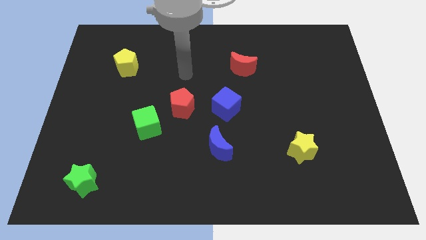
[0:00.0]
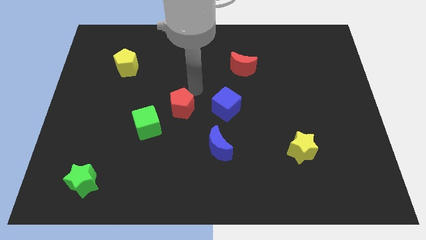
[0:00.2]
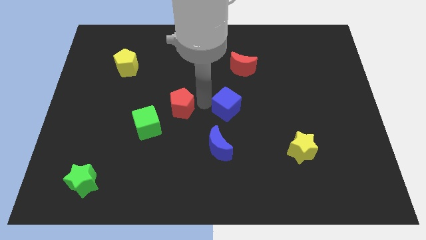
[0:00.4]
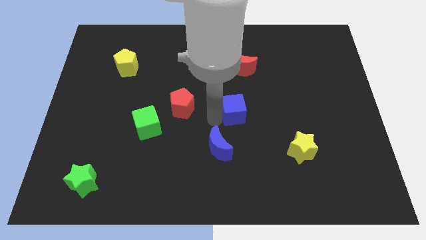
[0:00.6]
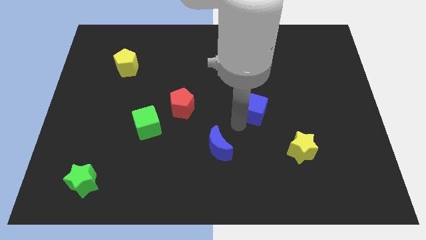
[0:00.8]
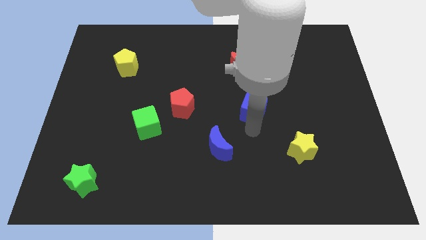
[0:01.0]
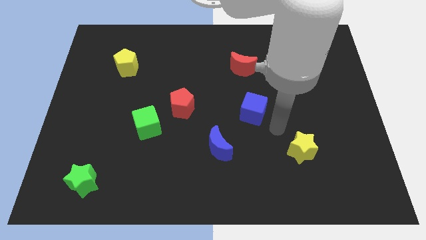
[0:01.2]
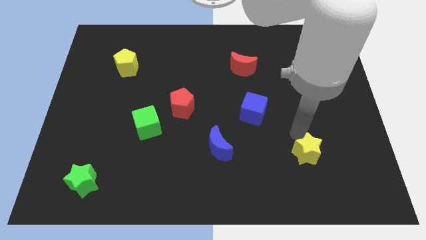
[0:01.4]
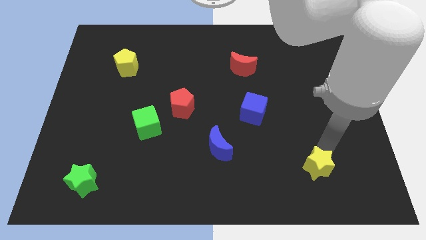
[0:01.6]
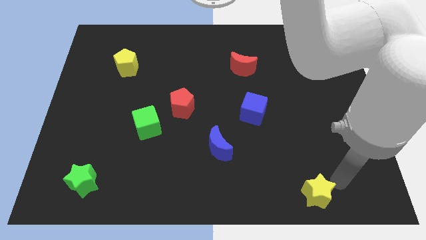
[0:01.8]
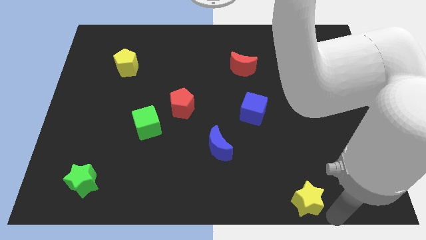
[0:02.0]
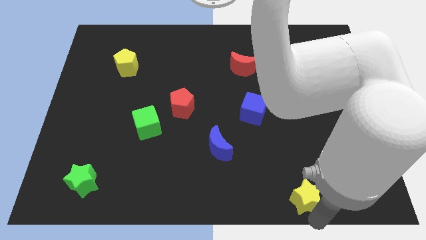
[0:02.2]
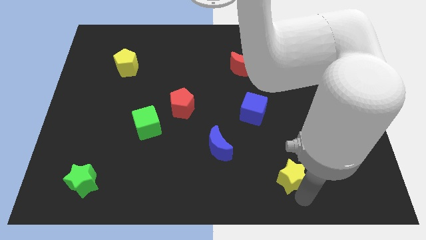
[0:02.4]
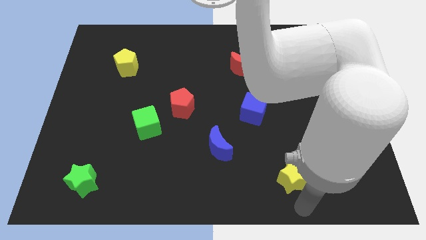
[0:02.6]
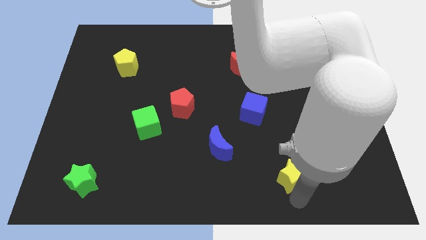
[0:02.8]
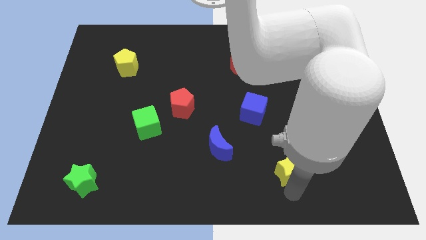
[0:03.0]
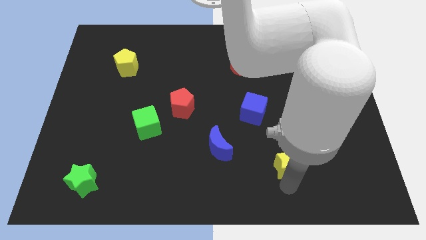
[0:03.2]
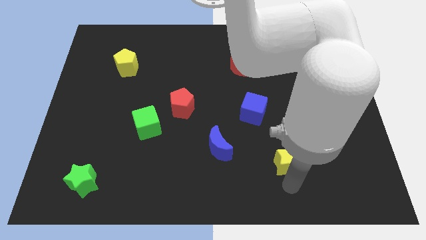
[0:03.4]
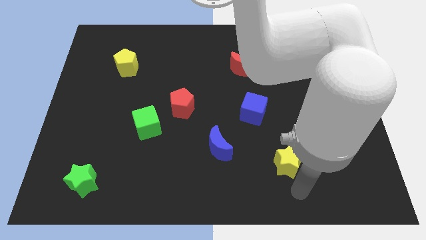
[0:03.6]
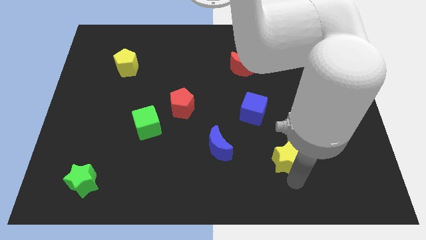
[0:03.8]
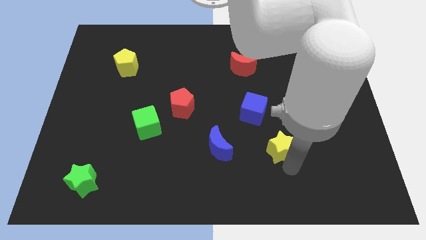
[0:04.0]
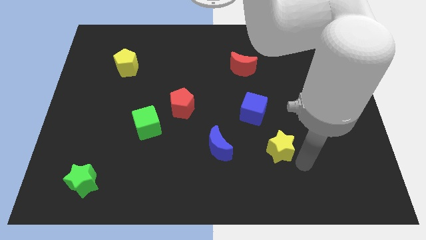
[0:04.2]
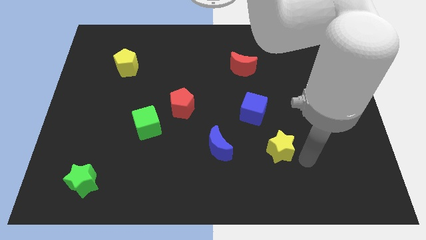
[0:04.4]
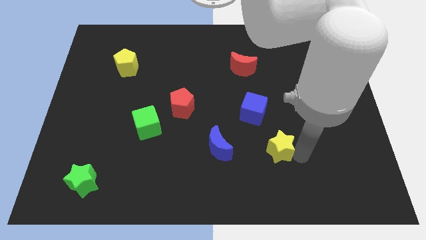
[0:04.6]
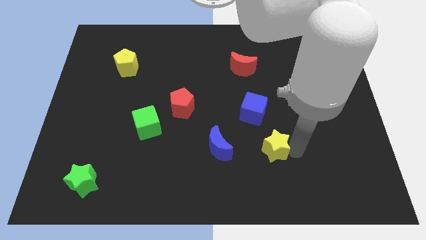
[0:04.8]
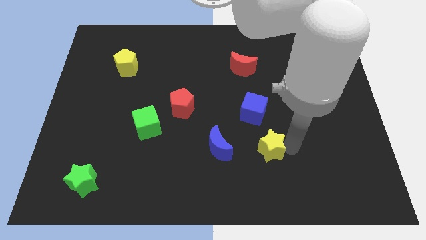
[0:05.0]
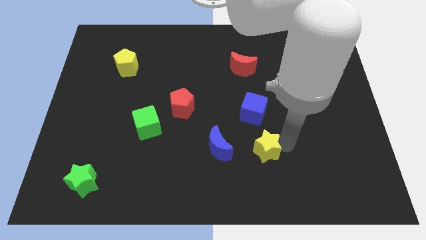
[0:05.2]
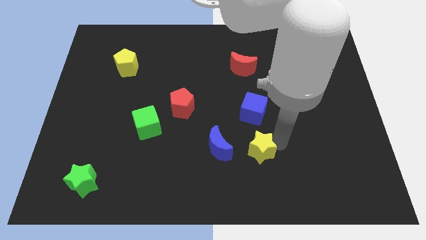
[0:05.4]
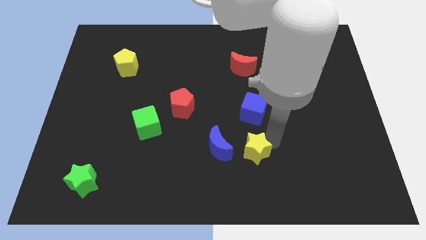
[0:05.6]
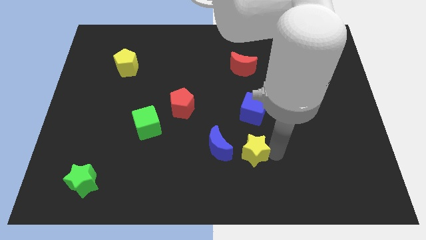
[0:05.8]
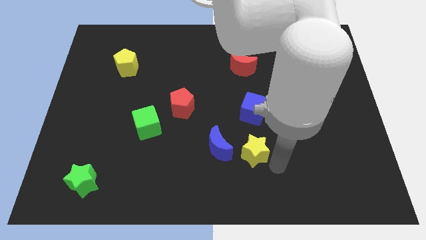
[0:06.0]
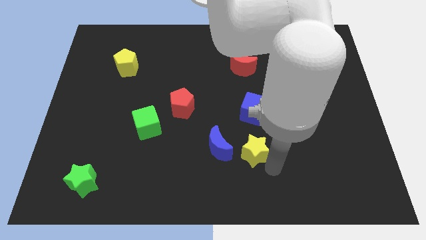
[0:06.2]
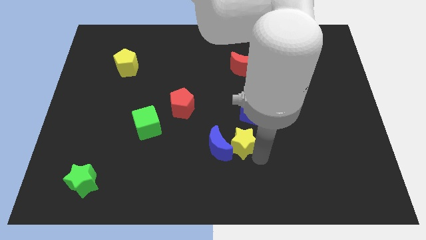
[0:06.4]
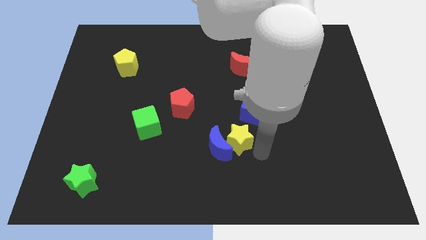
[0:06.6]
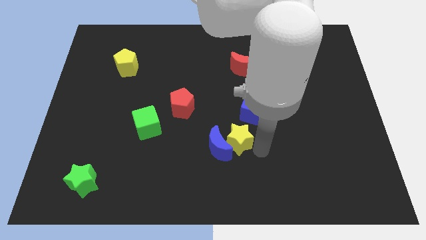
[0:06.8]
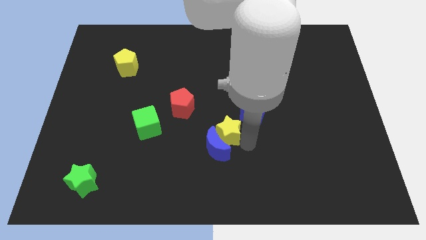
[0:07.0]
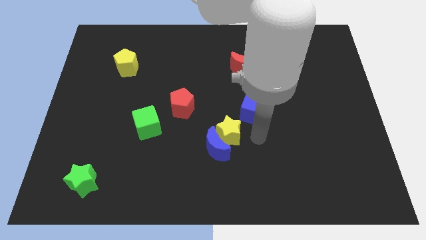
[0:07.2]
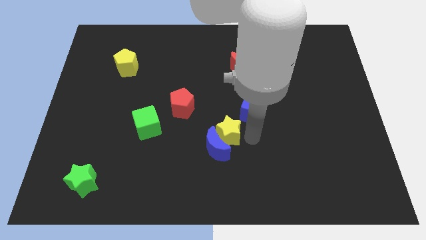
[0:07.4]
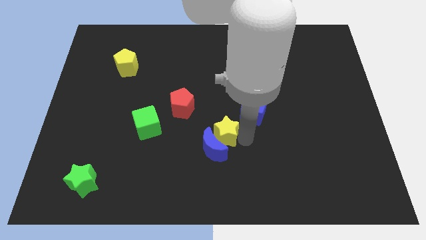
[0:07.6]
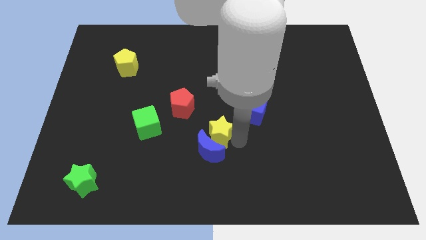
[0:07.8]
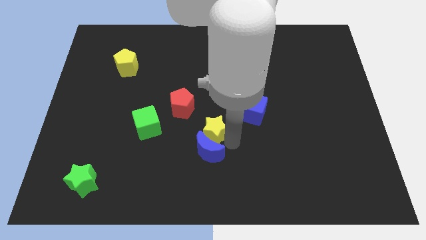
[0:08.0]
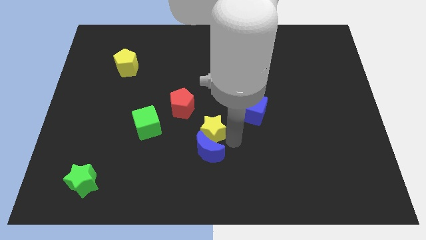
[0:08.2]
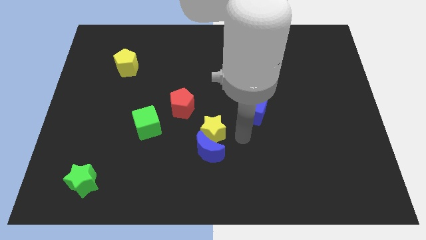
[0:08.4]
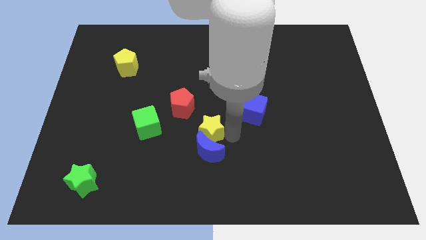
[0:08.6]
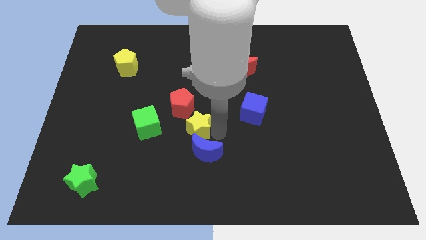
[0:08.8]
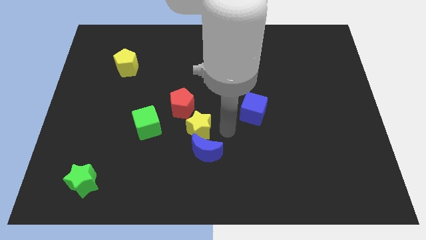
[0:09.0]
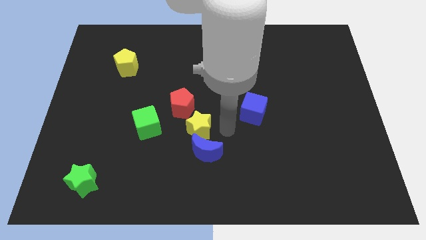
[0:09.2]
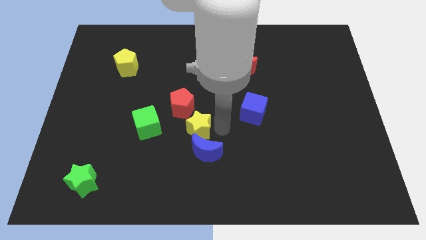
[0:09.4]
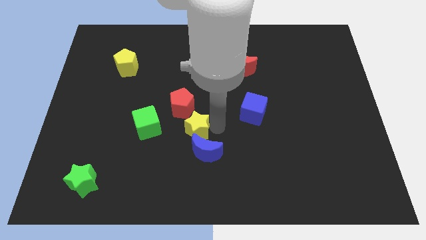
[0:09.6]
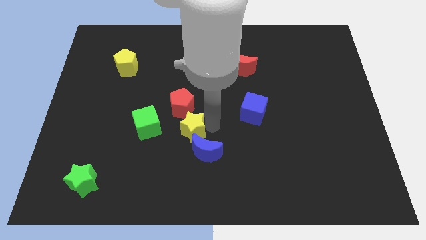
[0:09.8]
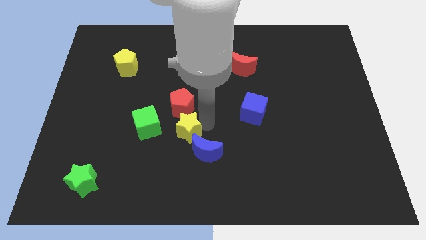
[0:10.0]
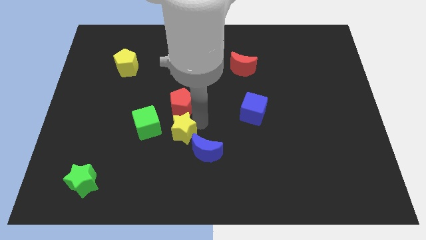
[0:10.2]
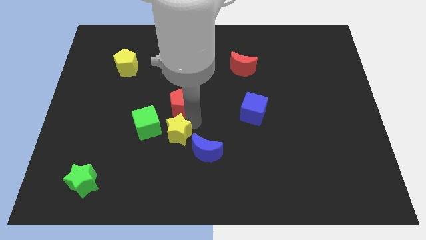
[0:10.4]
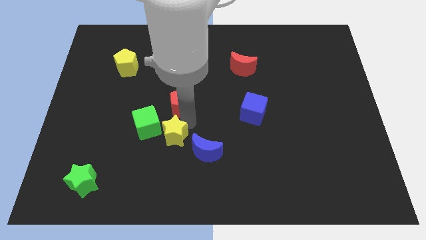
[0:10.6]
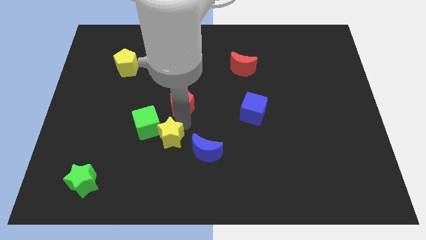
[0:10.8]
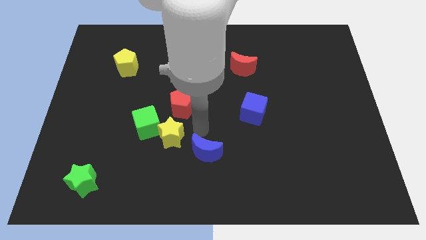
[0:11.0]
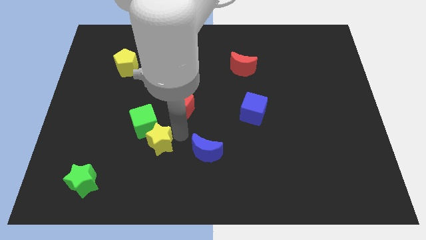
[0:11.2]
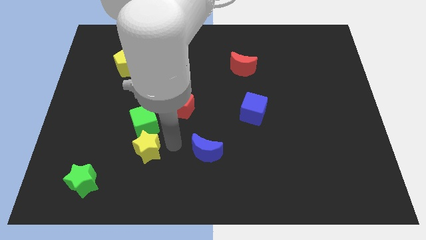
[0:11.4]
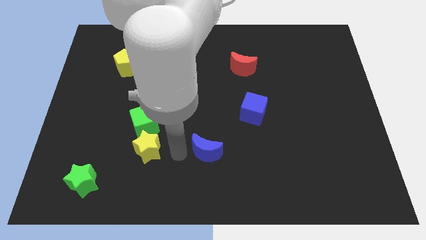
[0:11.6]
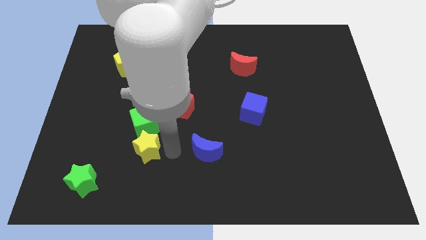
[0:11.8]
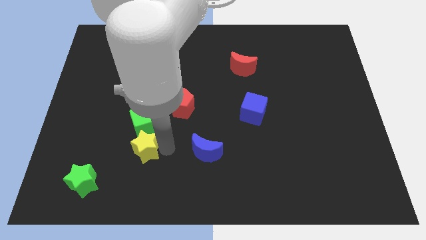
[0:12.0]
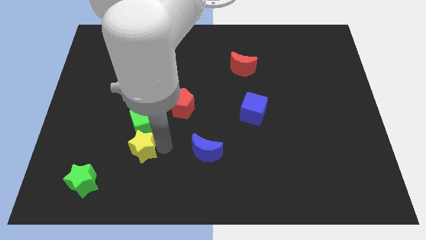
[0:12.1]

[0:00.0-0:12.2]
slide the yellow star to the bottom left of the green cube

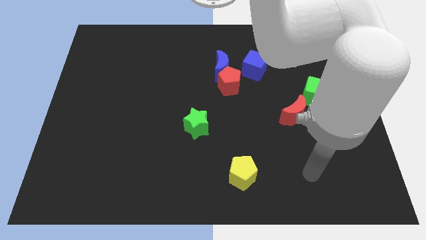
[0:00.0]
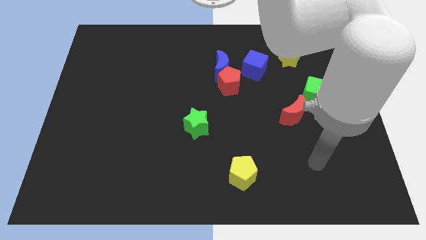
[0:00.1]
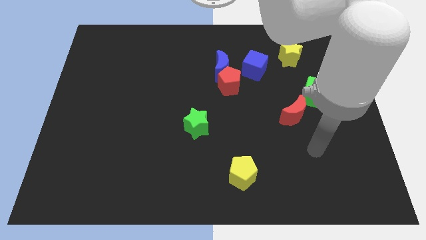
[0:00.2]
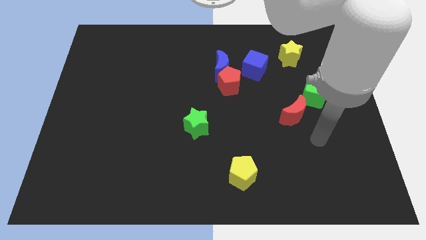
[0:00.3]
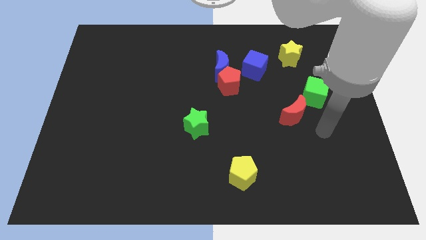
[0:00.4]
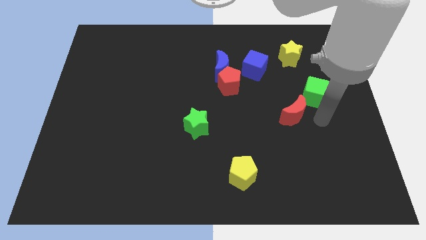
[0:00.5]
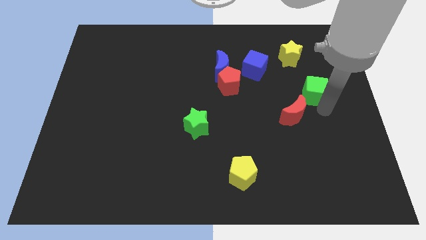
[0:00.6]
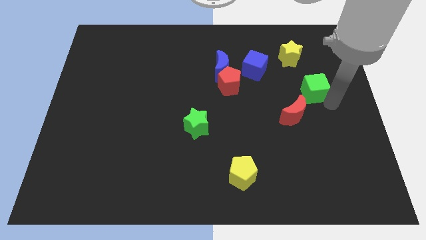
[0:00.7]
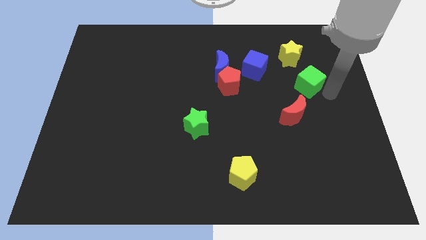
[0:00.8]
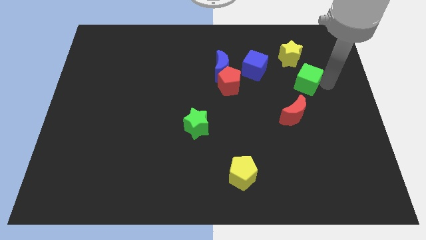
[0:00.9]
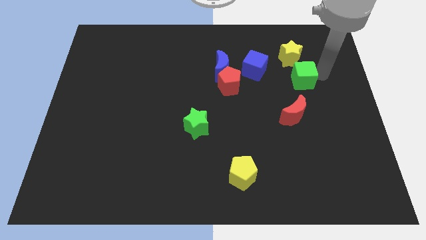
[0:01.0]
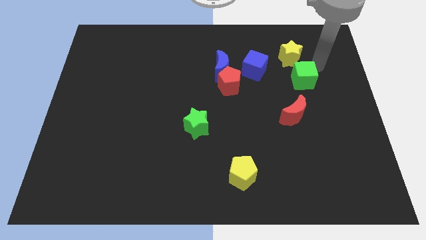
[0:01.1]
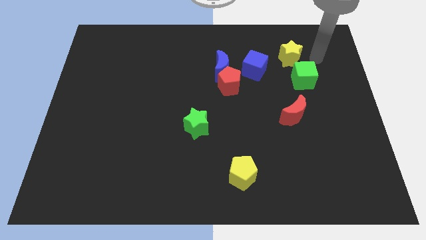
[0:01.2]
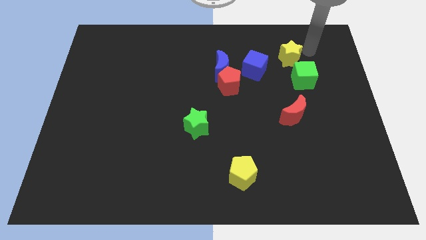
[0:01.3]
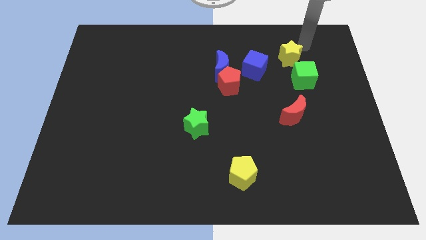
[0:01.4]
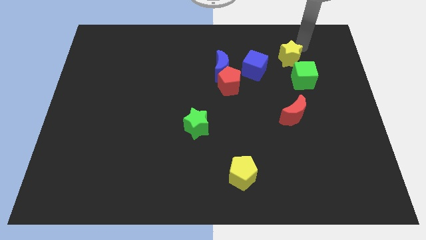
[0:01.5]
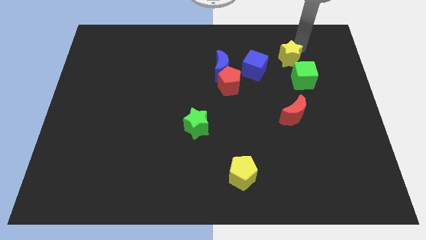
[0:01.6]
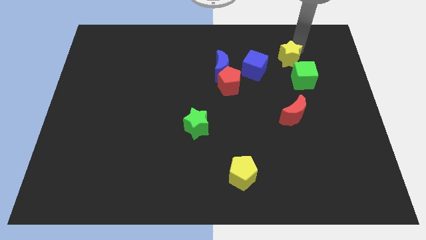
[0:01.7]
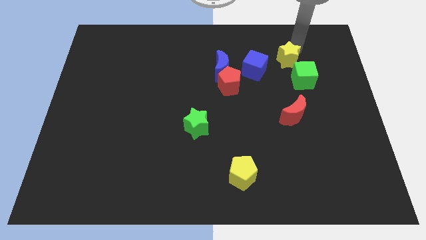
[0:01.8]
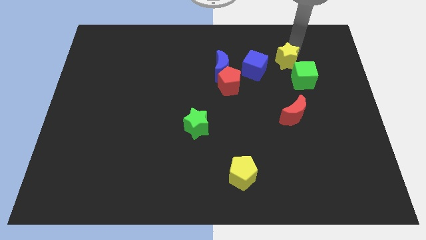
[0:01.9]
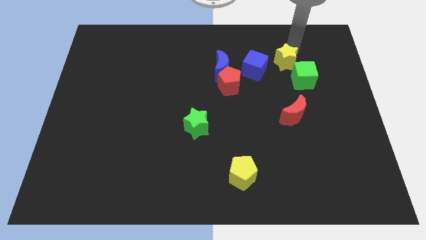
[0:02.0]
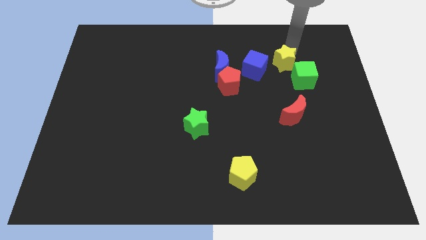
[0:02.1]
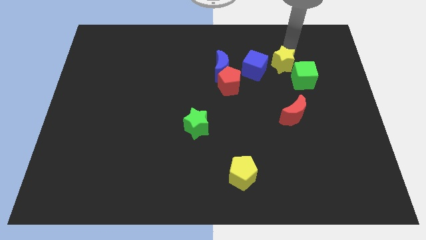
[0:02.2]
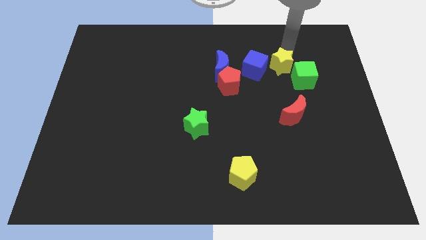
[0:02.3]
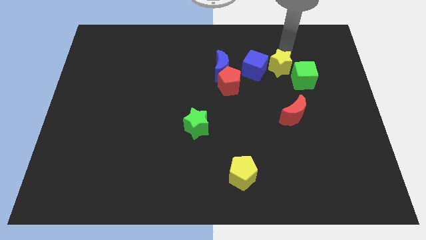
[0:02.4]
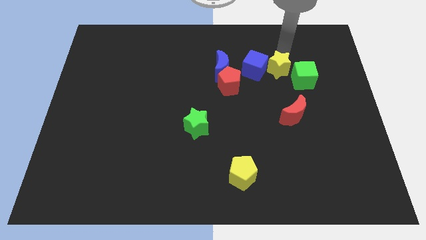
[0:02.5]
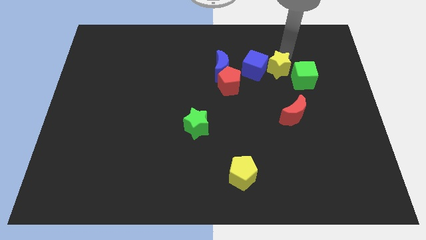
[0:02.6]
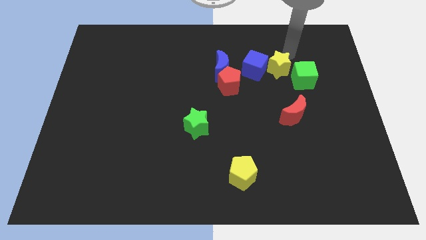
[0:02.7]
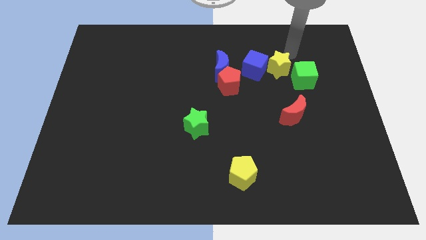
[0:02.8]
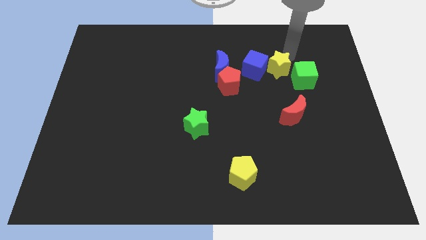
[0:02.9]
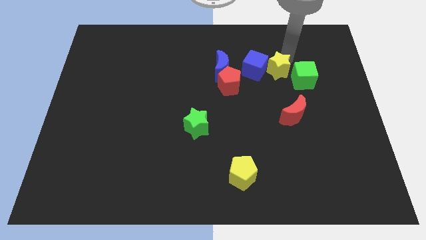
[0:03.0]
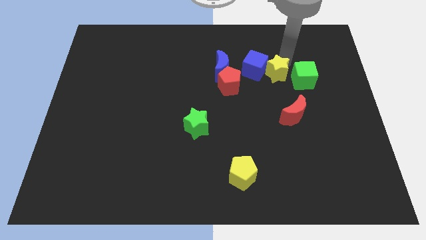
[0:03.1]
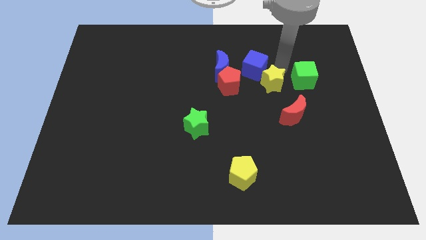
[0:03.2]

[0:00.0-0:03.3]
slide the yellow star to the bottom of the blue cube
